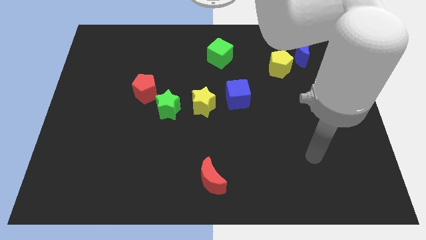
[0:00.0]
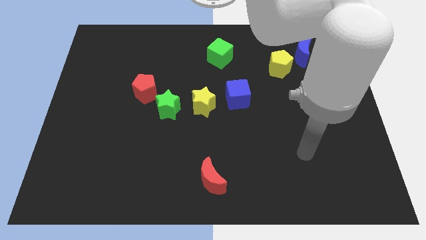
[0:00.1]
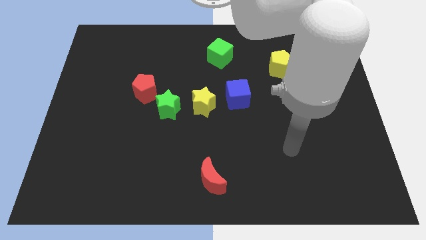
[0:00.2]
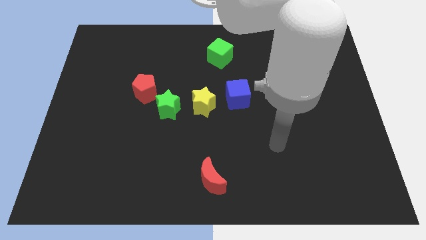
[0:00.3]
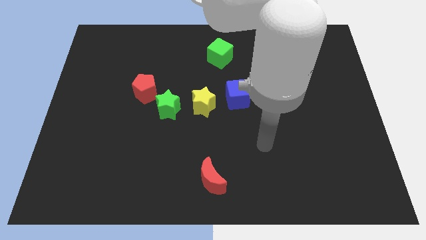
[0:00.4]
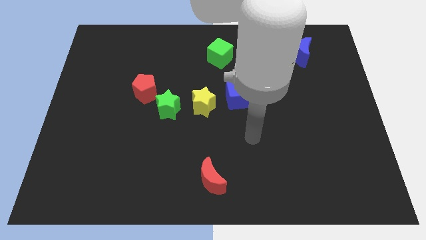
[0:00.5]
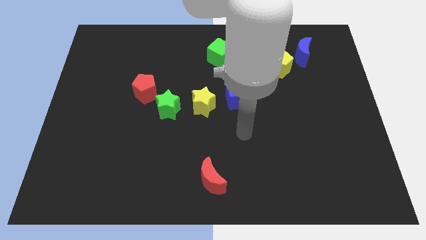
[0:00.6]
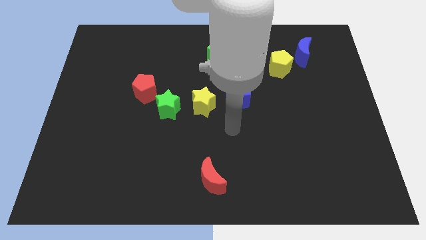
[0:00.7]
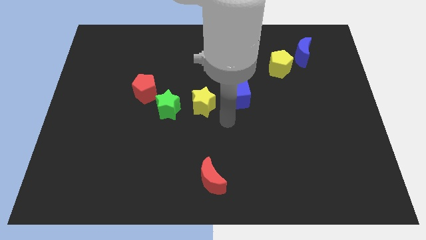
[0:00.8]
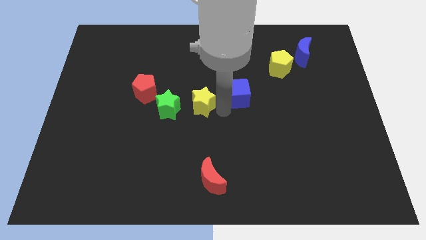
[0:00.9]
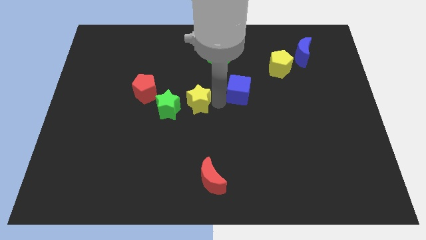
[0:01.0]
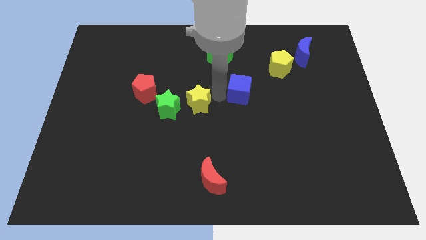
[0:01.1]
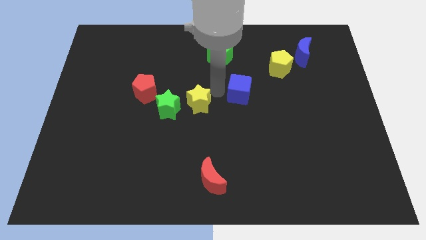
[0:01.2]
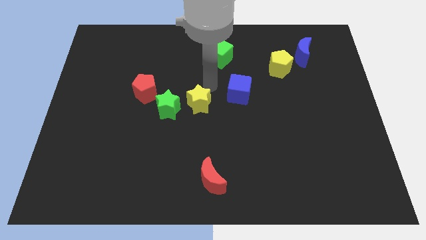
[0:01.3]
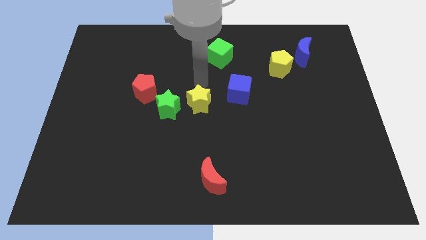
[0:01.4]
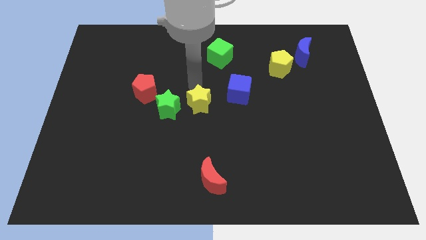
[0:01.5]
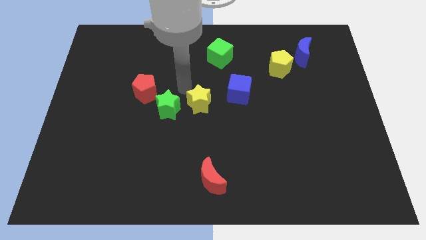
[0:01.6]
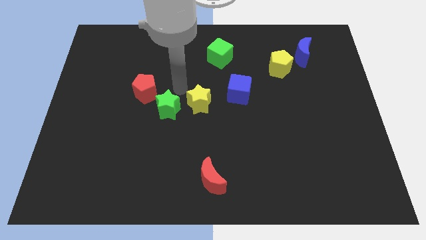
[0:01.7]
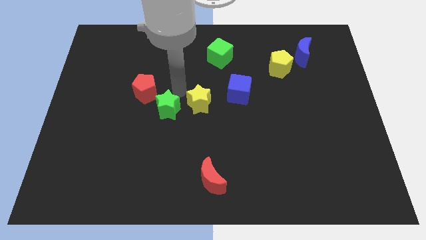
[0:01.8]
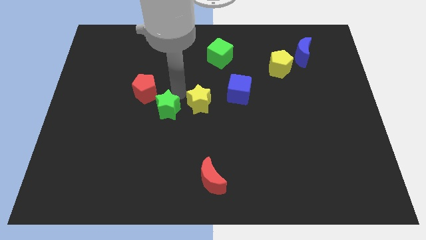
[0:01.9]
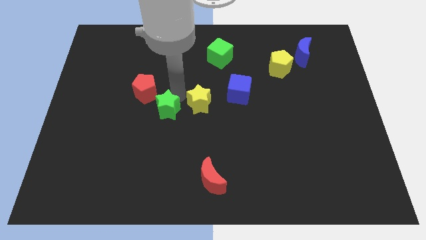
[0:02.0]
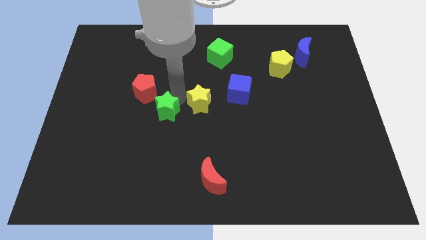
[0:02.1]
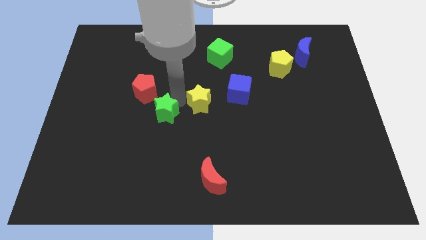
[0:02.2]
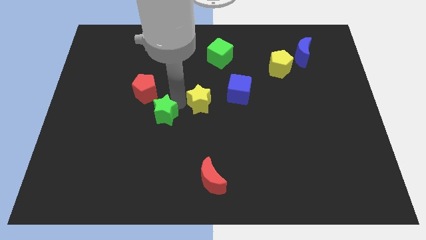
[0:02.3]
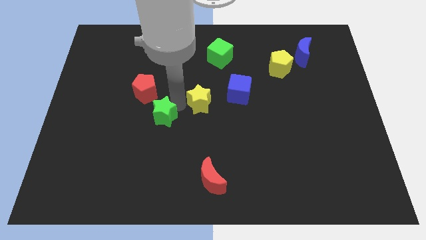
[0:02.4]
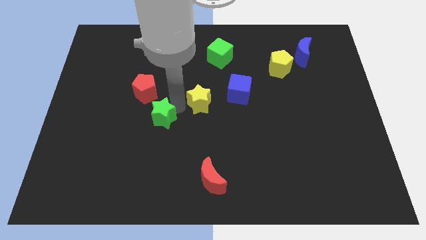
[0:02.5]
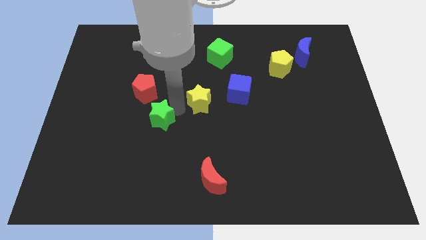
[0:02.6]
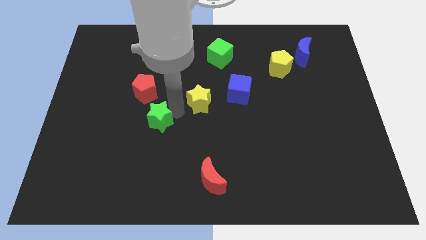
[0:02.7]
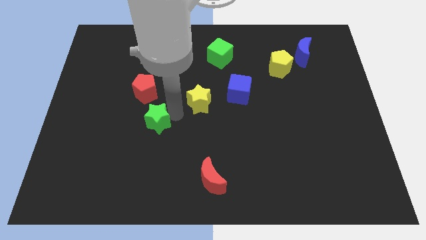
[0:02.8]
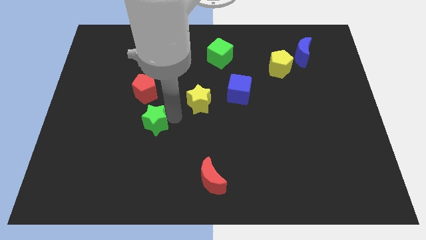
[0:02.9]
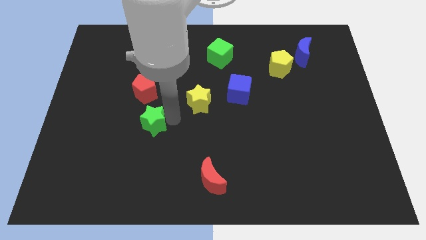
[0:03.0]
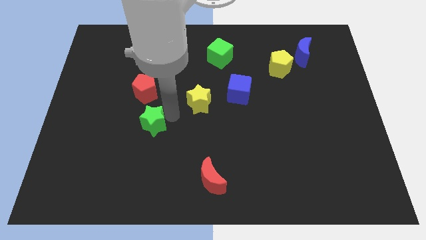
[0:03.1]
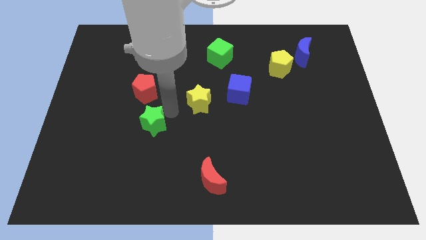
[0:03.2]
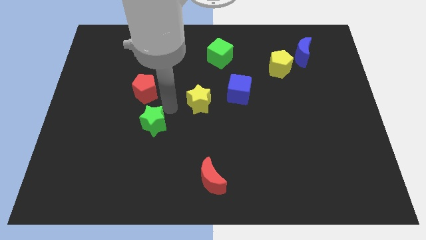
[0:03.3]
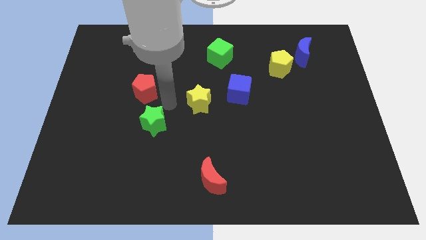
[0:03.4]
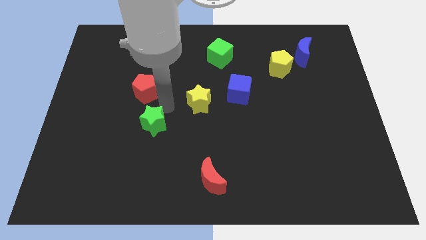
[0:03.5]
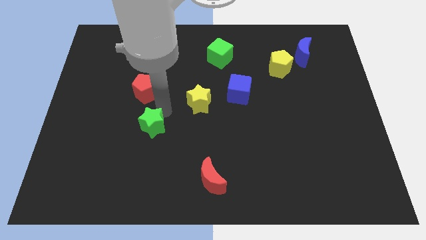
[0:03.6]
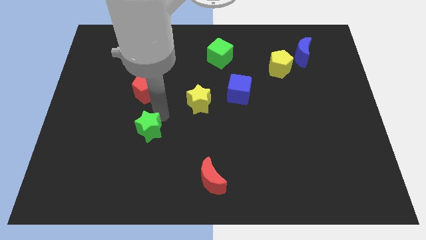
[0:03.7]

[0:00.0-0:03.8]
pull the green star apart from the yellow star and red pentagon

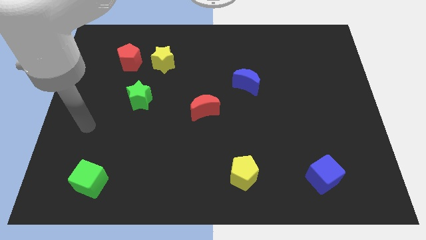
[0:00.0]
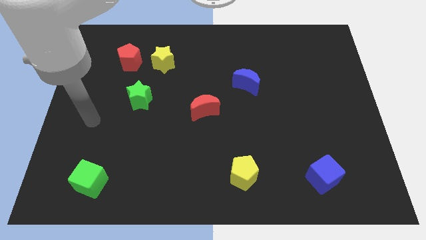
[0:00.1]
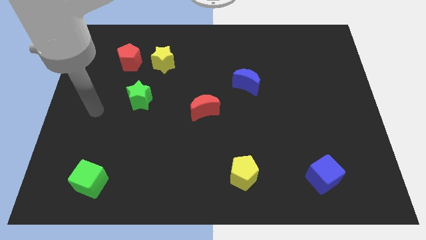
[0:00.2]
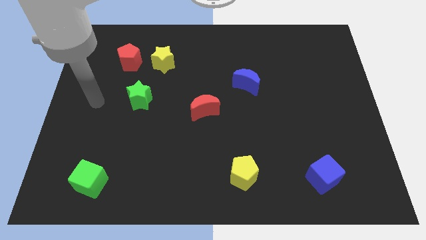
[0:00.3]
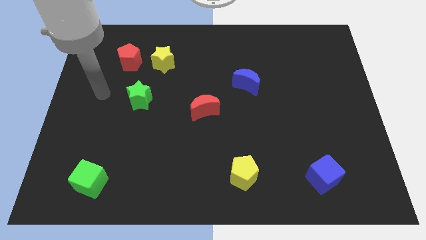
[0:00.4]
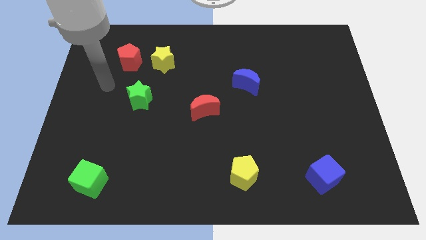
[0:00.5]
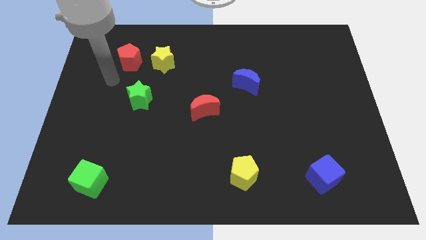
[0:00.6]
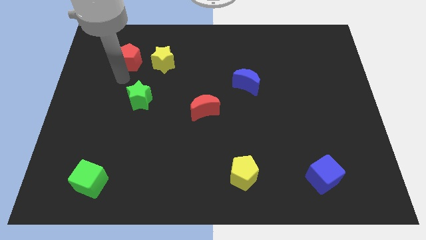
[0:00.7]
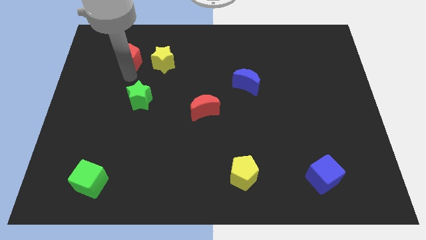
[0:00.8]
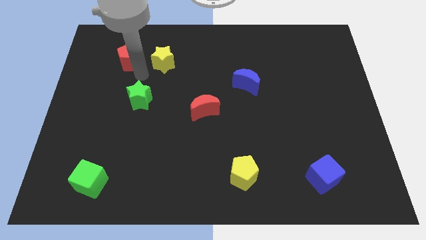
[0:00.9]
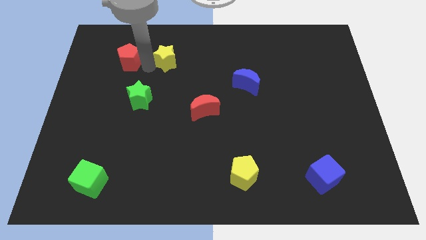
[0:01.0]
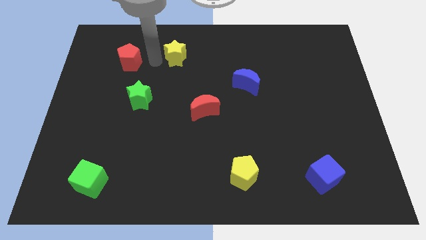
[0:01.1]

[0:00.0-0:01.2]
move the red pentagon away from the yellow star

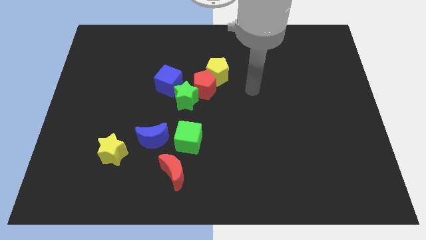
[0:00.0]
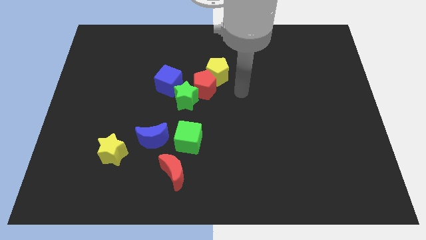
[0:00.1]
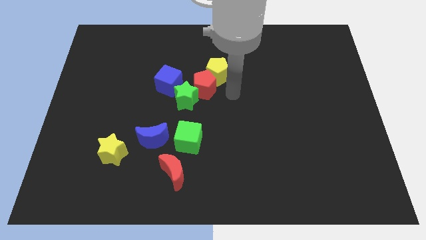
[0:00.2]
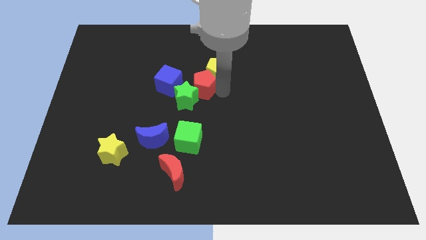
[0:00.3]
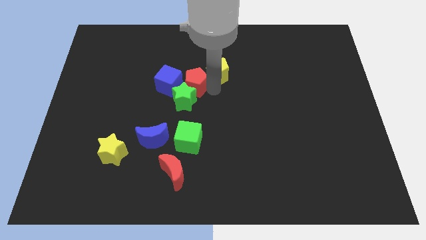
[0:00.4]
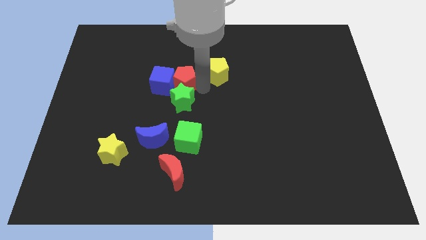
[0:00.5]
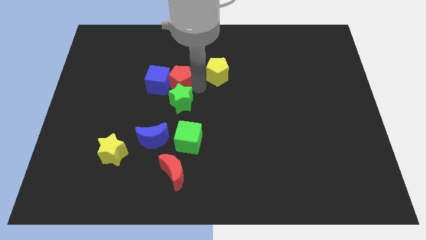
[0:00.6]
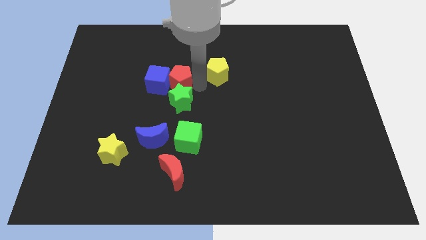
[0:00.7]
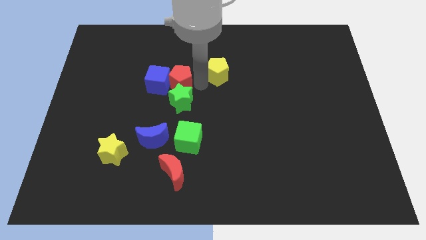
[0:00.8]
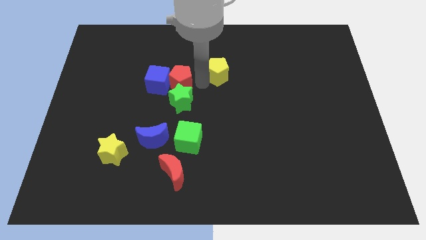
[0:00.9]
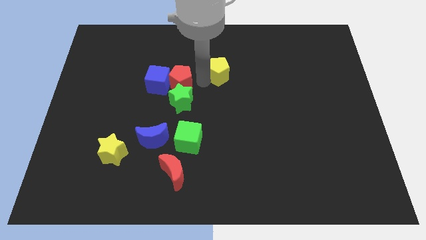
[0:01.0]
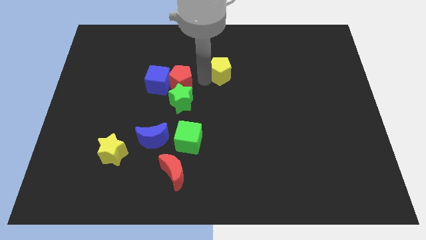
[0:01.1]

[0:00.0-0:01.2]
move the yellow pentagon away from the red pentagon

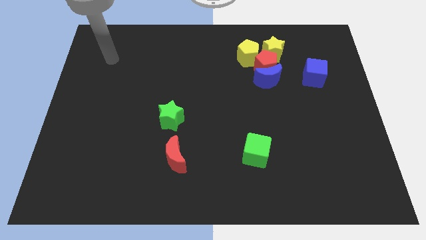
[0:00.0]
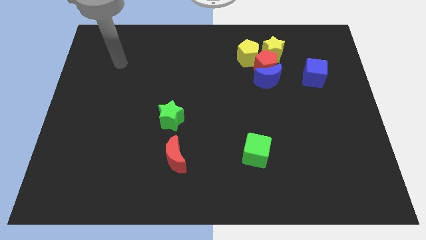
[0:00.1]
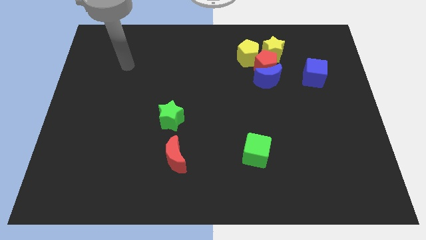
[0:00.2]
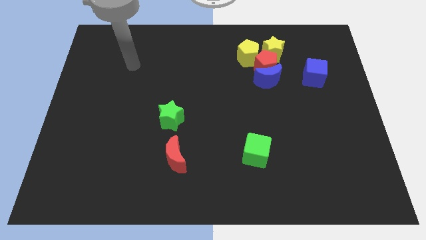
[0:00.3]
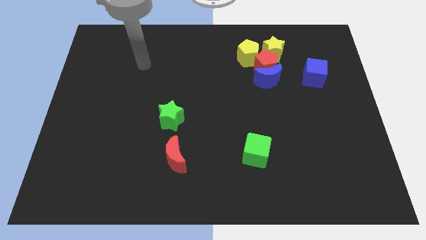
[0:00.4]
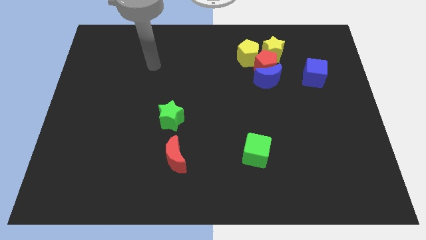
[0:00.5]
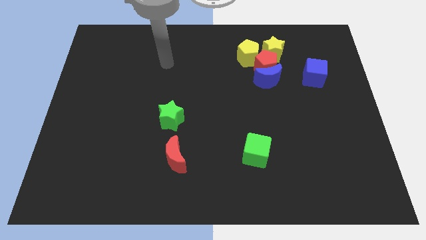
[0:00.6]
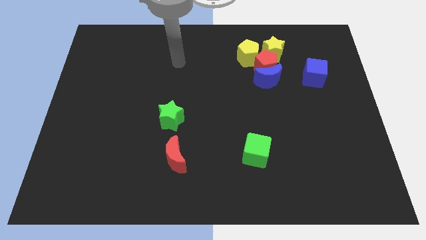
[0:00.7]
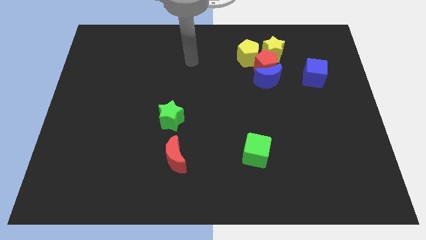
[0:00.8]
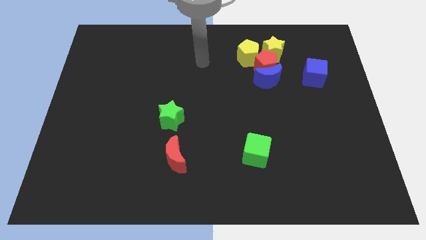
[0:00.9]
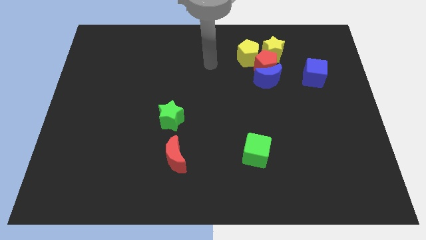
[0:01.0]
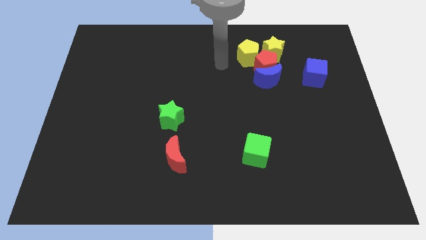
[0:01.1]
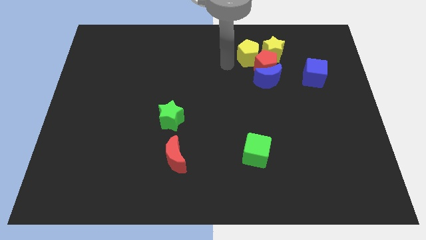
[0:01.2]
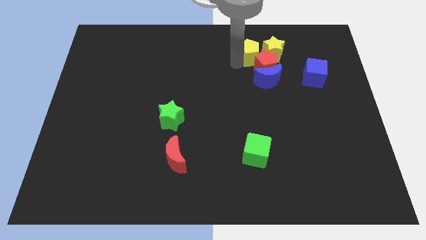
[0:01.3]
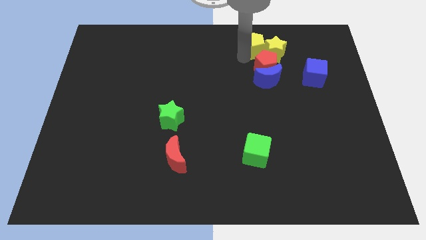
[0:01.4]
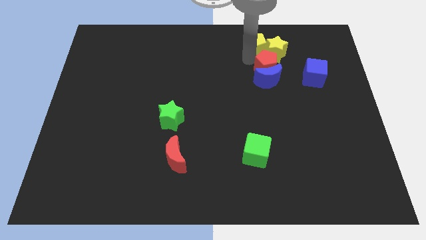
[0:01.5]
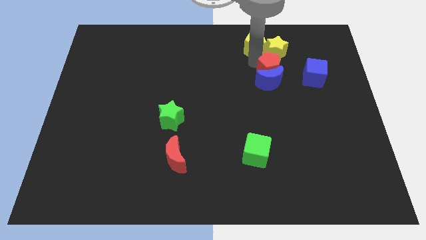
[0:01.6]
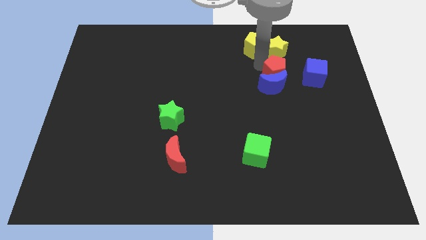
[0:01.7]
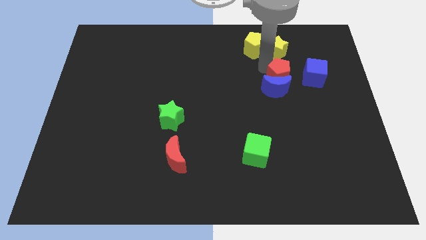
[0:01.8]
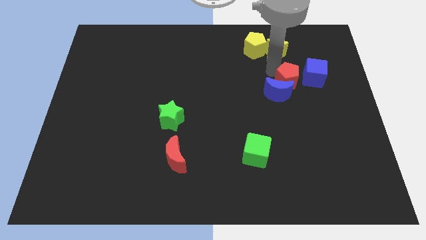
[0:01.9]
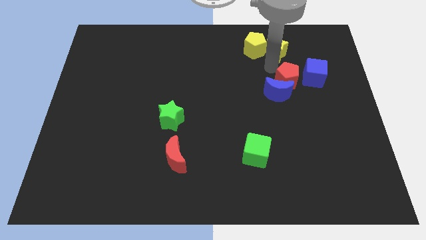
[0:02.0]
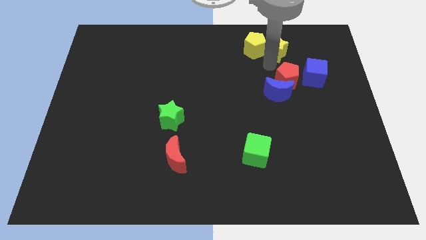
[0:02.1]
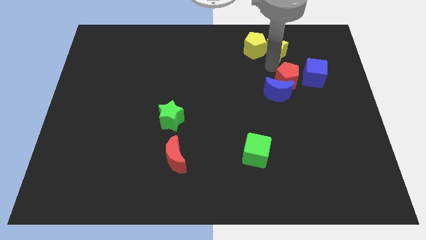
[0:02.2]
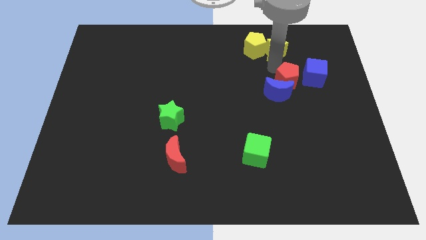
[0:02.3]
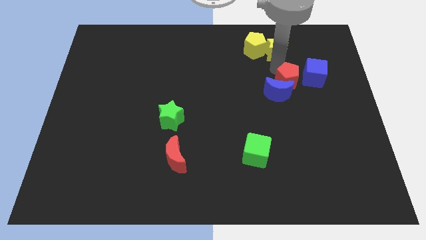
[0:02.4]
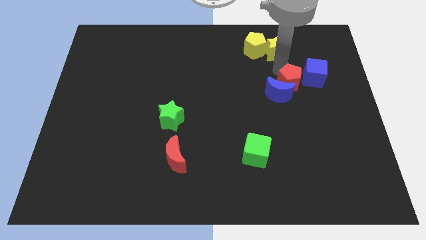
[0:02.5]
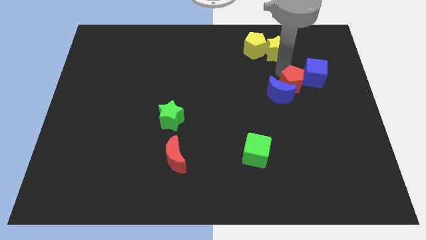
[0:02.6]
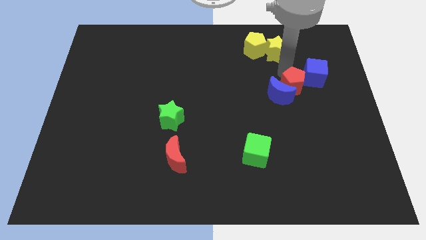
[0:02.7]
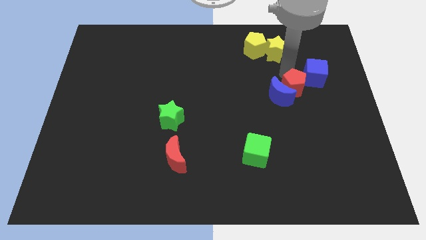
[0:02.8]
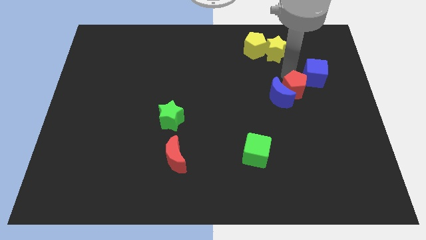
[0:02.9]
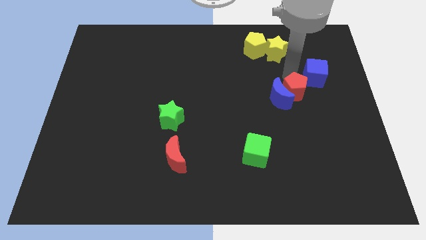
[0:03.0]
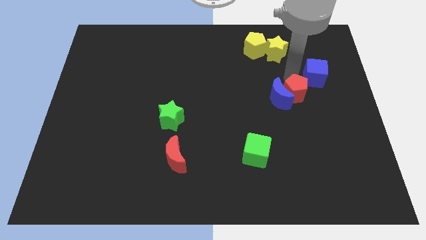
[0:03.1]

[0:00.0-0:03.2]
move the red pentagon away from the clump
